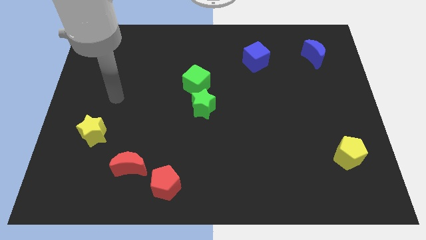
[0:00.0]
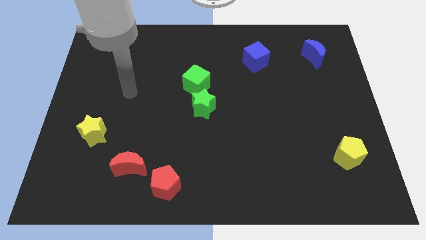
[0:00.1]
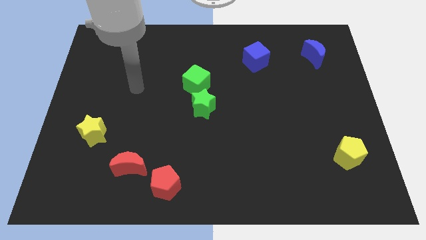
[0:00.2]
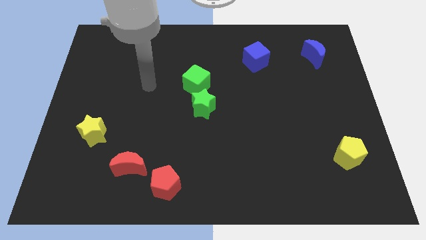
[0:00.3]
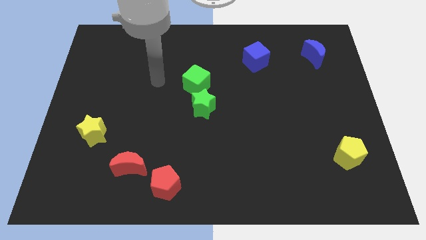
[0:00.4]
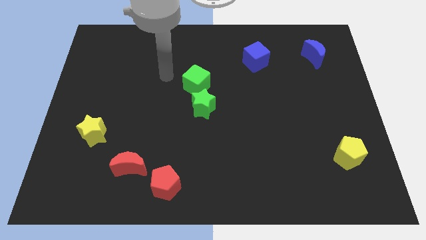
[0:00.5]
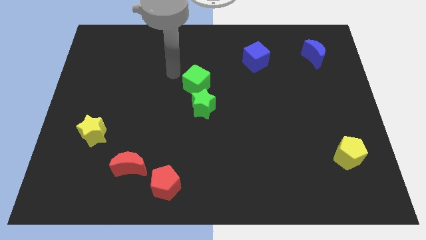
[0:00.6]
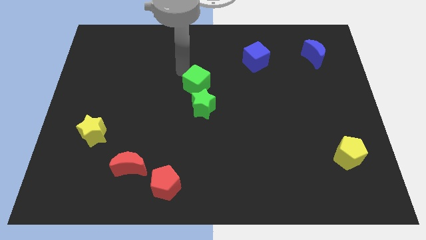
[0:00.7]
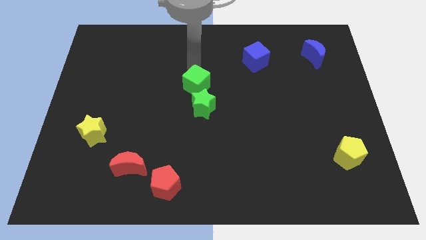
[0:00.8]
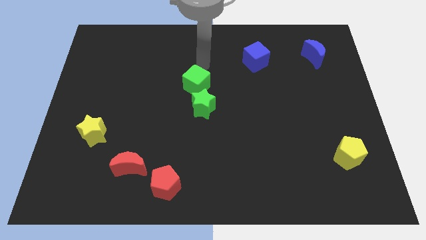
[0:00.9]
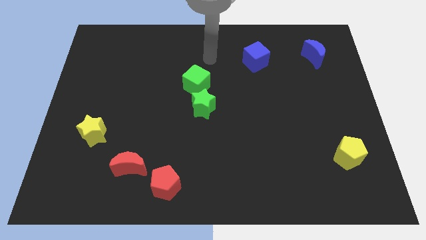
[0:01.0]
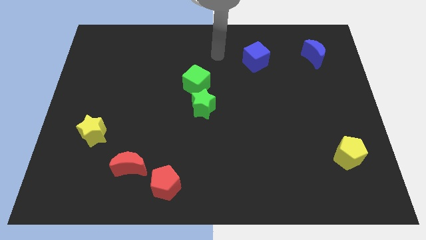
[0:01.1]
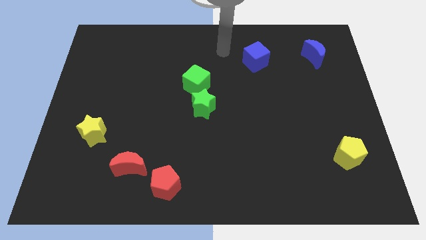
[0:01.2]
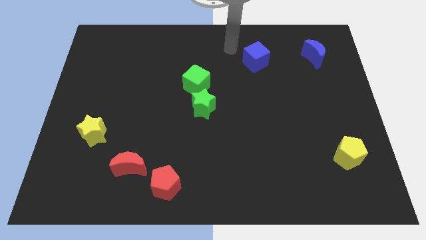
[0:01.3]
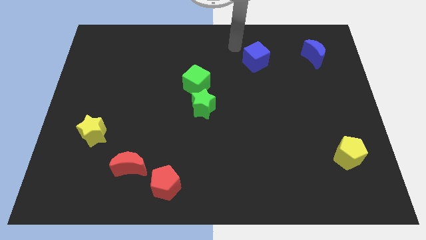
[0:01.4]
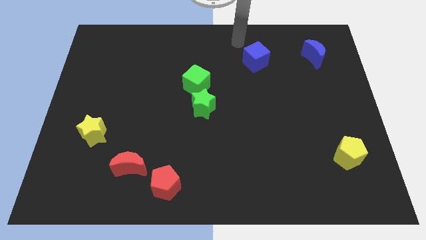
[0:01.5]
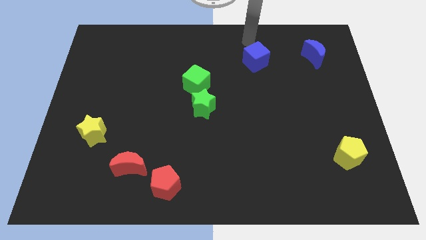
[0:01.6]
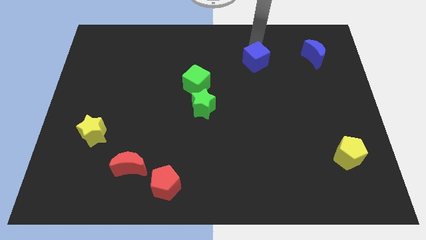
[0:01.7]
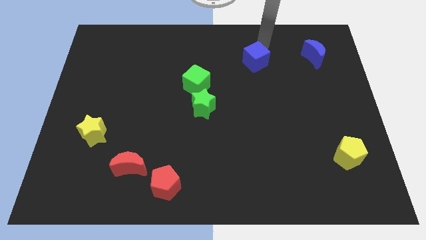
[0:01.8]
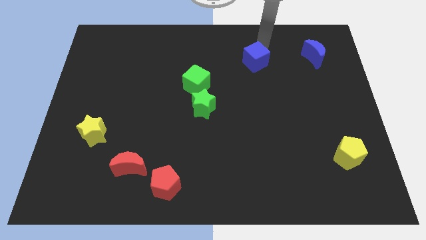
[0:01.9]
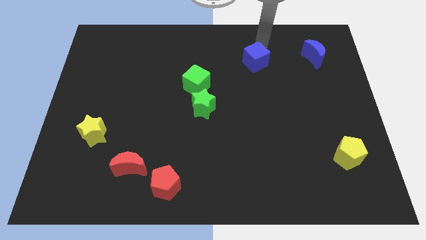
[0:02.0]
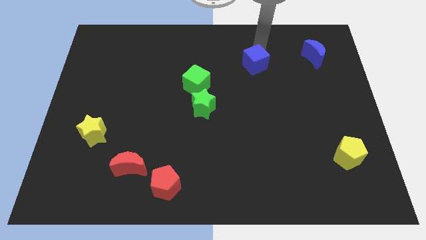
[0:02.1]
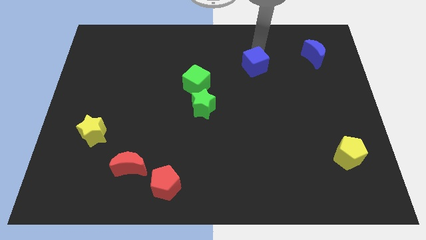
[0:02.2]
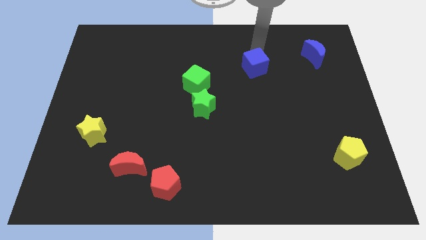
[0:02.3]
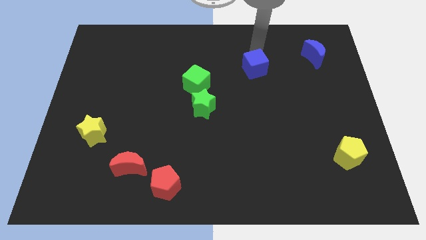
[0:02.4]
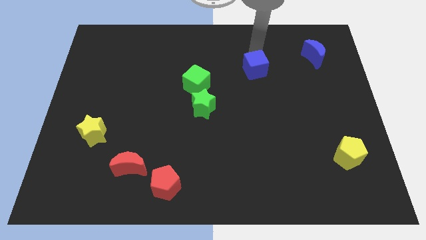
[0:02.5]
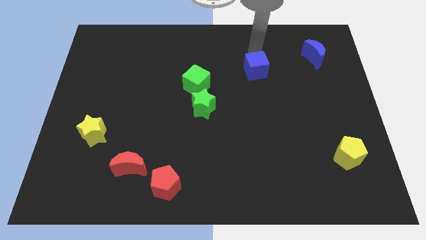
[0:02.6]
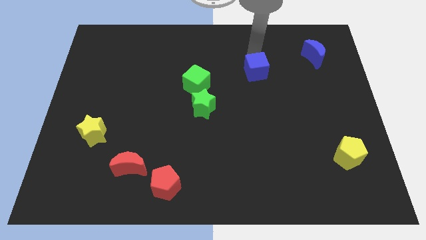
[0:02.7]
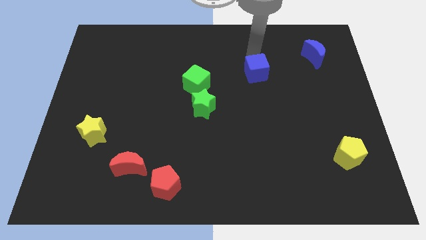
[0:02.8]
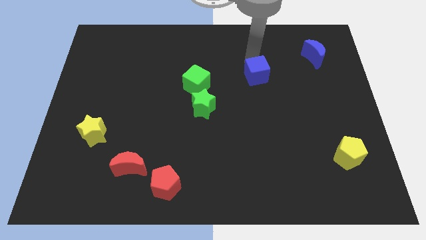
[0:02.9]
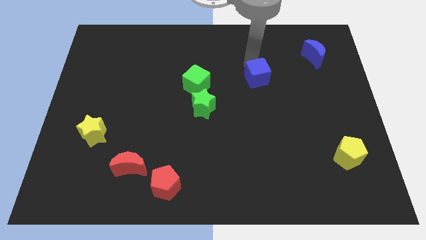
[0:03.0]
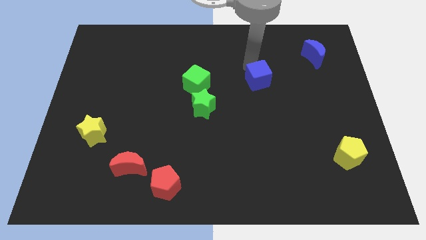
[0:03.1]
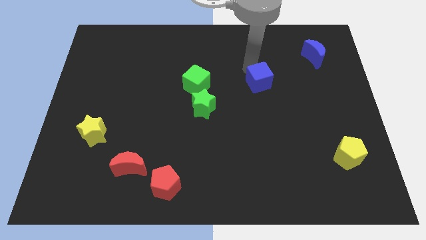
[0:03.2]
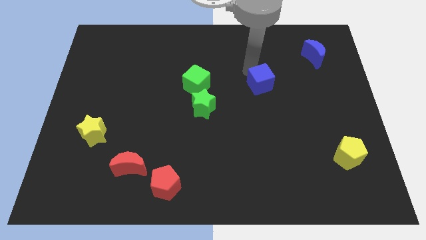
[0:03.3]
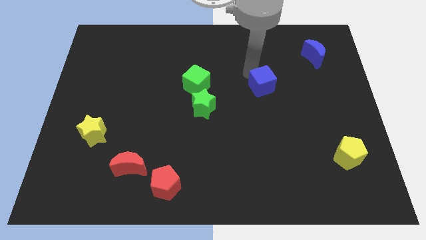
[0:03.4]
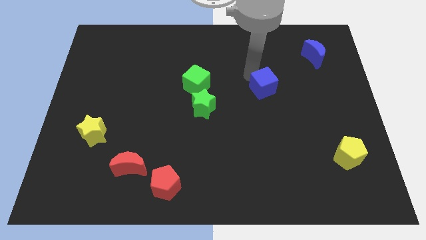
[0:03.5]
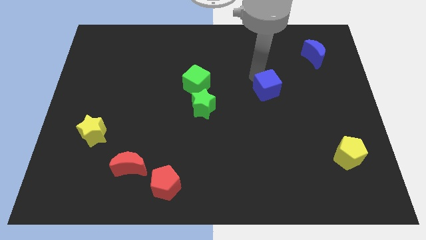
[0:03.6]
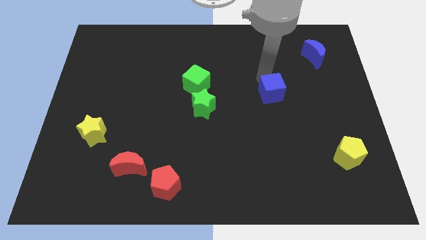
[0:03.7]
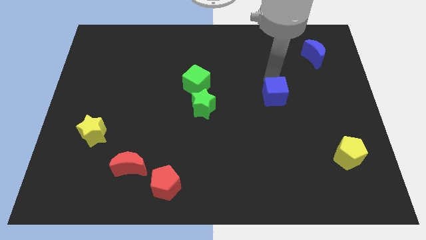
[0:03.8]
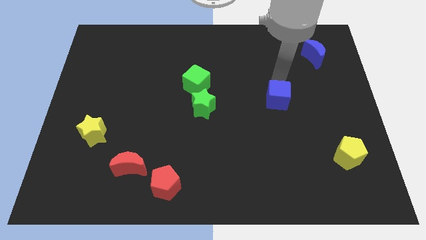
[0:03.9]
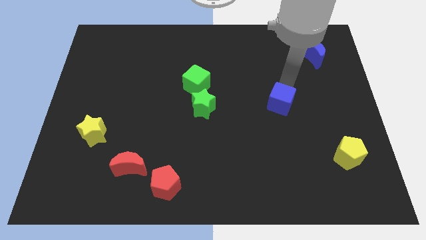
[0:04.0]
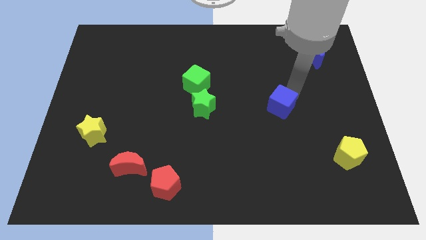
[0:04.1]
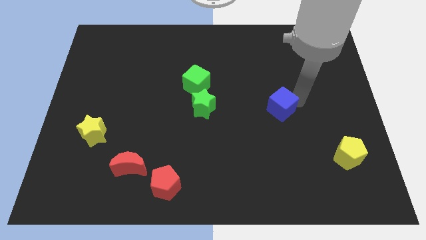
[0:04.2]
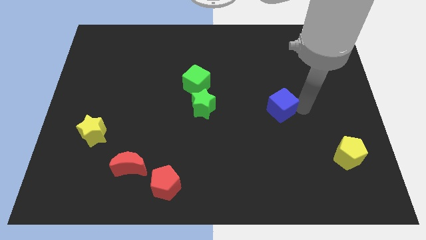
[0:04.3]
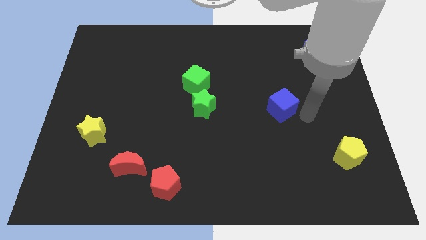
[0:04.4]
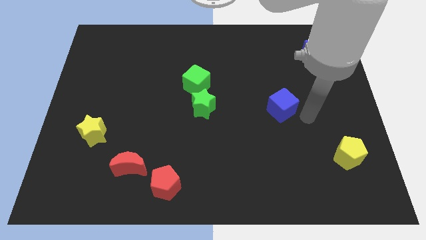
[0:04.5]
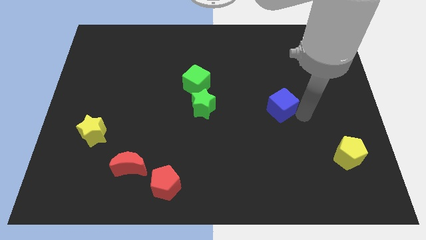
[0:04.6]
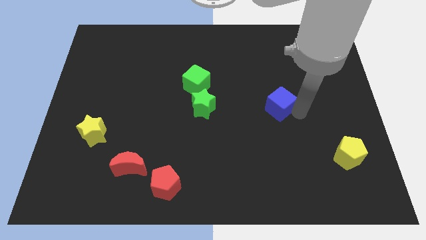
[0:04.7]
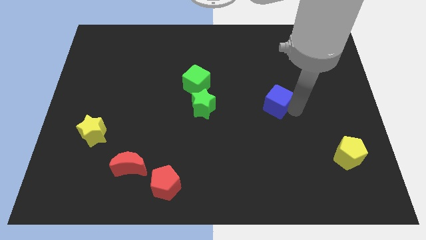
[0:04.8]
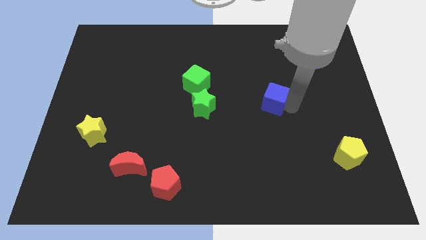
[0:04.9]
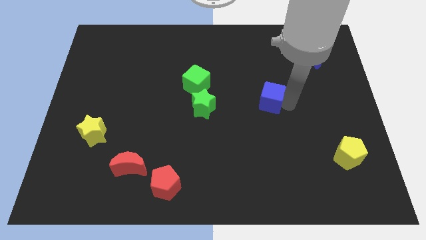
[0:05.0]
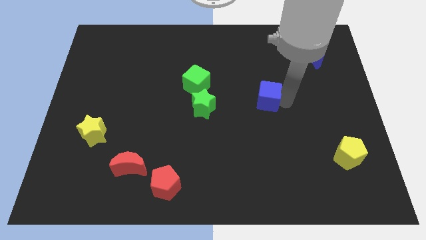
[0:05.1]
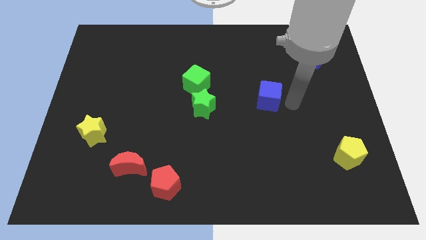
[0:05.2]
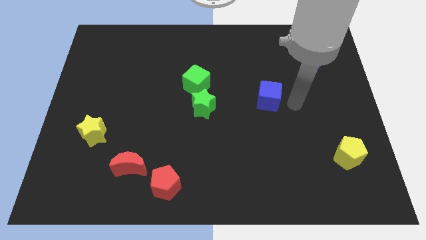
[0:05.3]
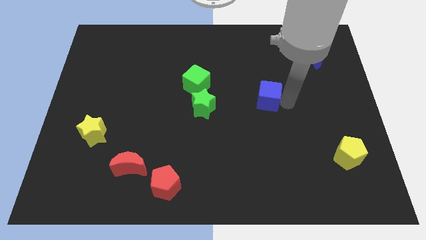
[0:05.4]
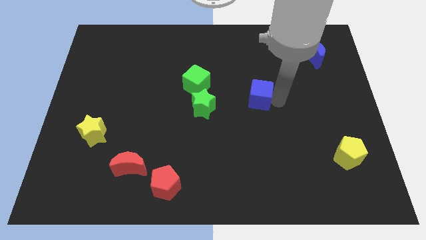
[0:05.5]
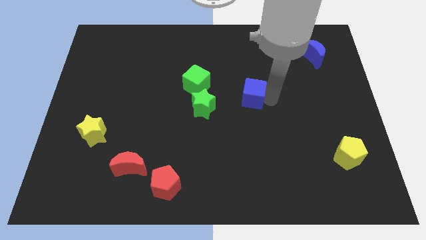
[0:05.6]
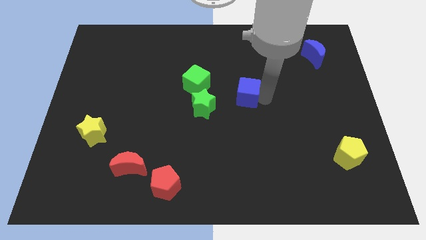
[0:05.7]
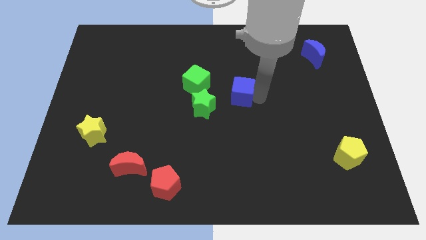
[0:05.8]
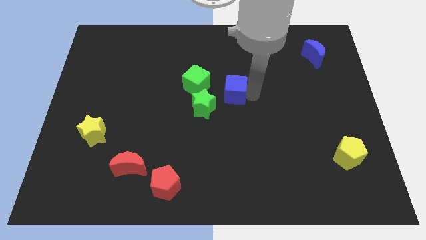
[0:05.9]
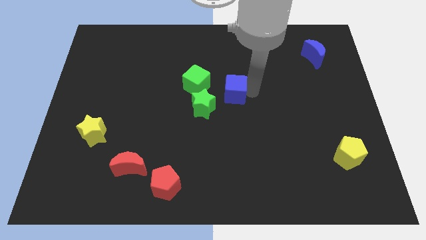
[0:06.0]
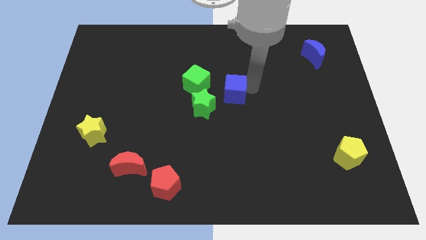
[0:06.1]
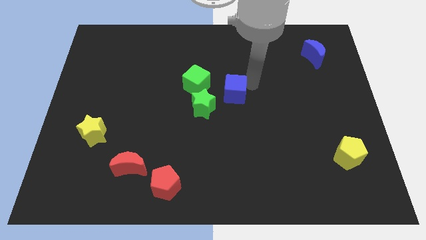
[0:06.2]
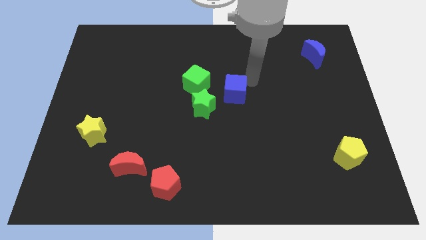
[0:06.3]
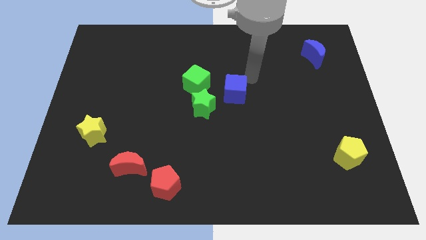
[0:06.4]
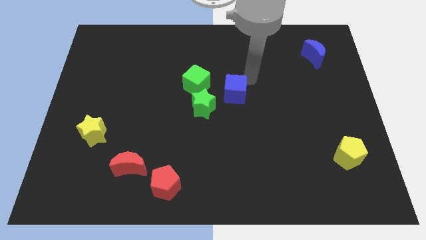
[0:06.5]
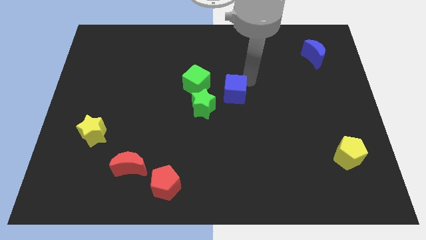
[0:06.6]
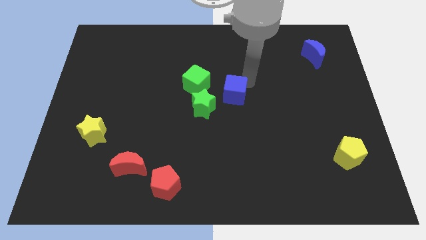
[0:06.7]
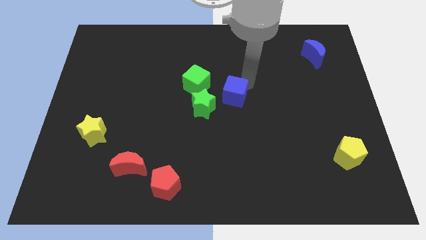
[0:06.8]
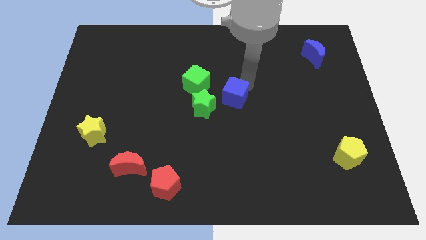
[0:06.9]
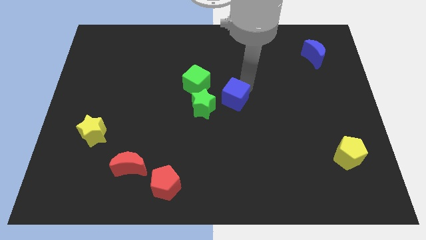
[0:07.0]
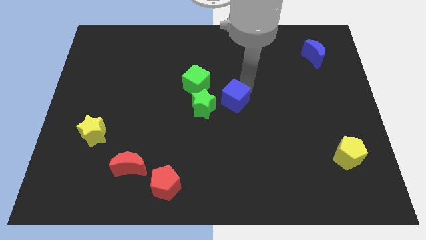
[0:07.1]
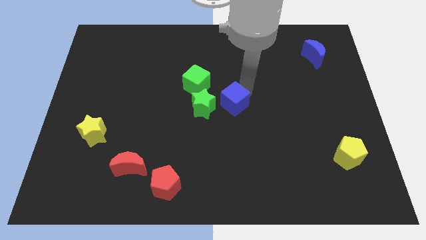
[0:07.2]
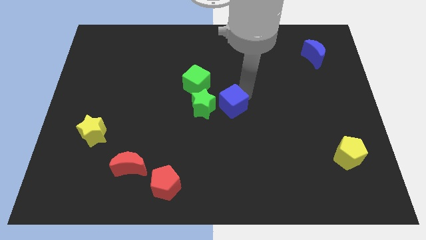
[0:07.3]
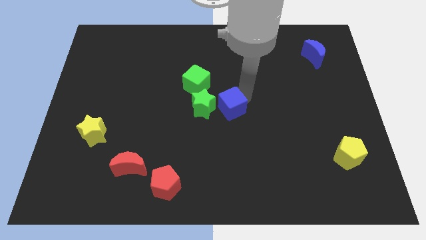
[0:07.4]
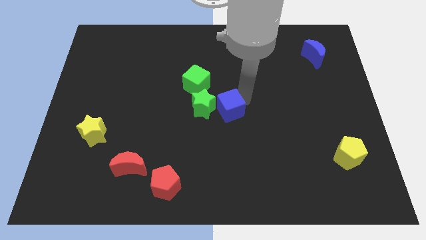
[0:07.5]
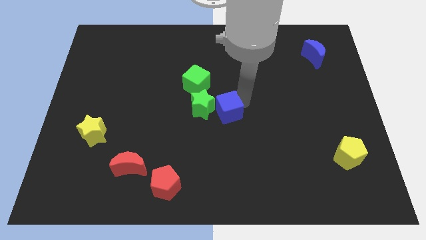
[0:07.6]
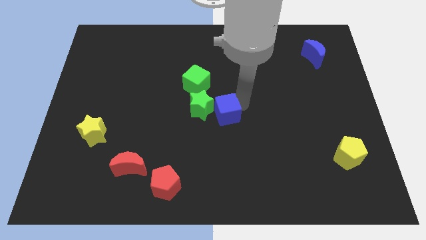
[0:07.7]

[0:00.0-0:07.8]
put the blue cube next to the green star
